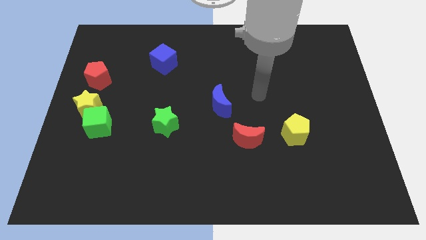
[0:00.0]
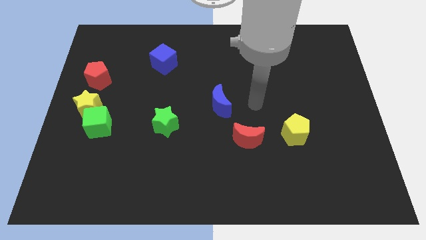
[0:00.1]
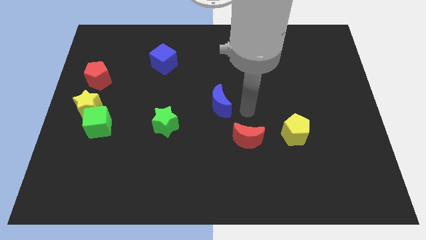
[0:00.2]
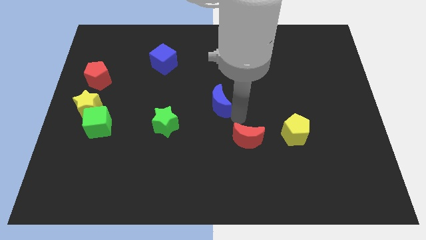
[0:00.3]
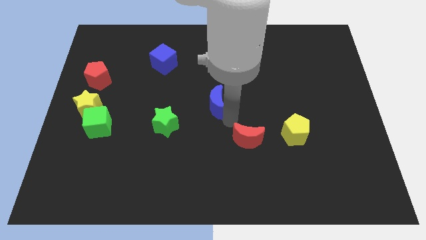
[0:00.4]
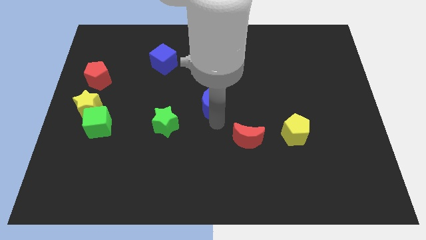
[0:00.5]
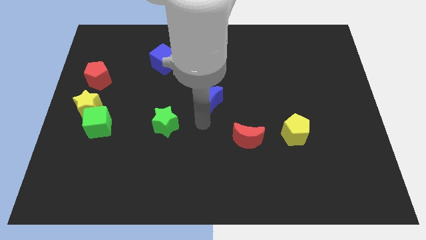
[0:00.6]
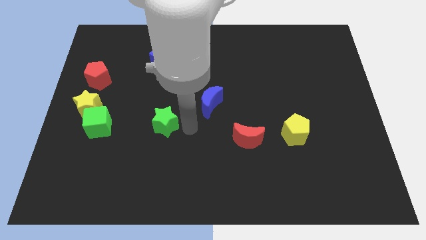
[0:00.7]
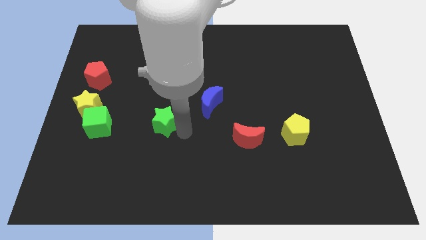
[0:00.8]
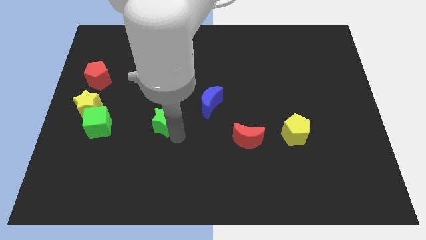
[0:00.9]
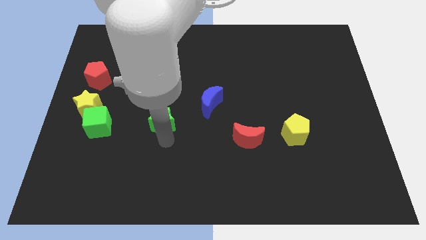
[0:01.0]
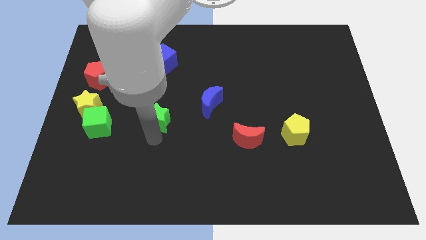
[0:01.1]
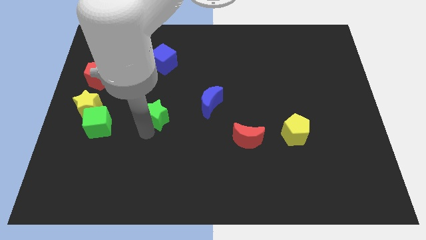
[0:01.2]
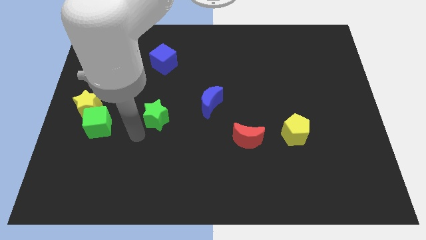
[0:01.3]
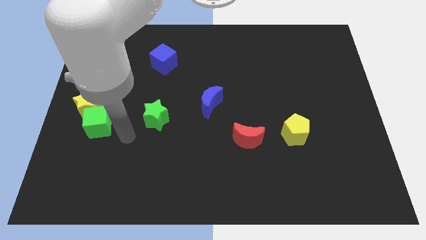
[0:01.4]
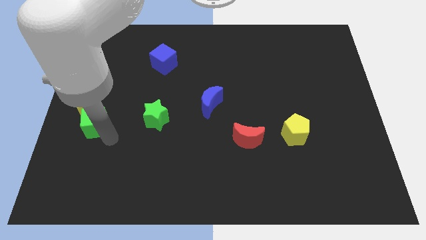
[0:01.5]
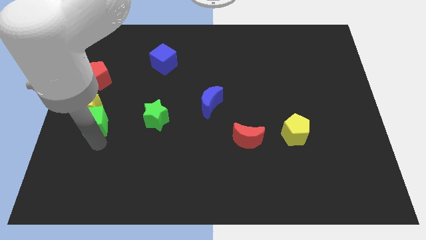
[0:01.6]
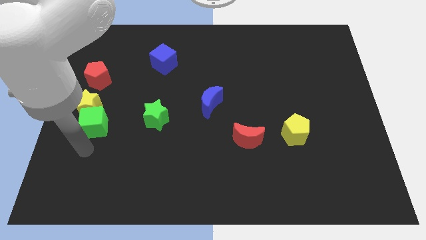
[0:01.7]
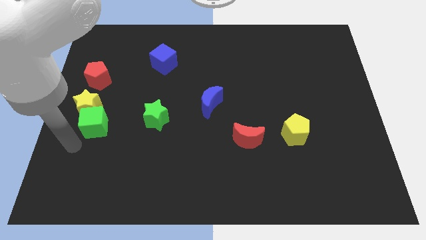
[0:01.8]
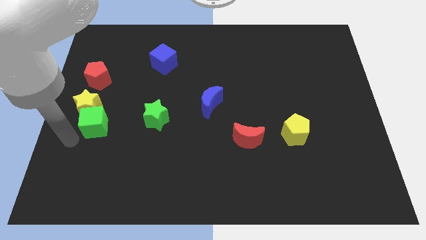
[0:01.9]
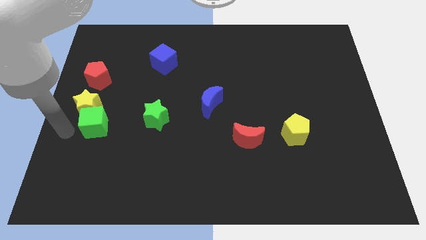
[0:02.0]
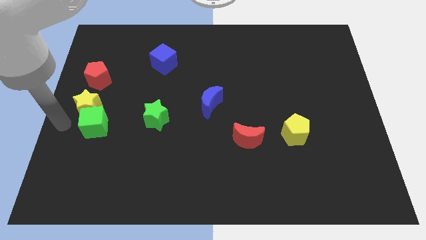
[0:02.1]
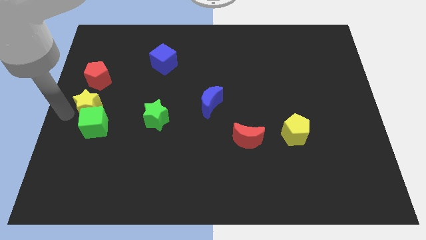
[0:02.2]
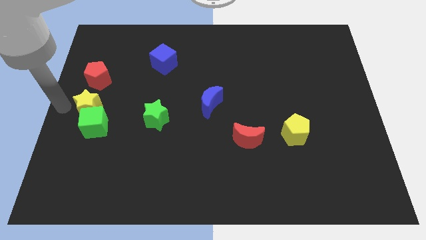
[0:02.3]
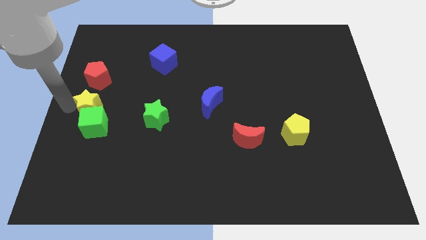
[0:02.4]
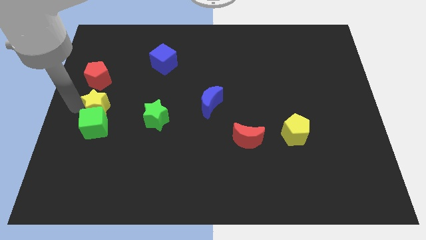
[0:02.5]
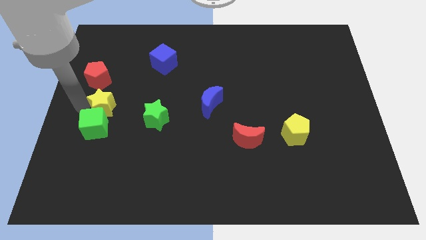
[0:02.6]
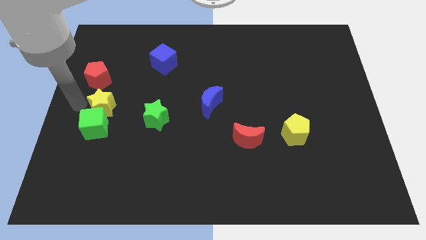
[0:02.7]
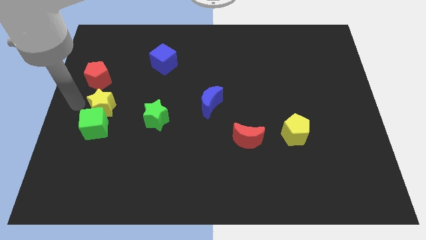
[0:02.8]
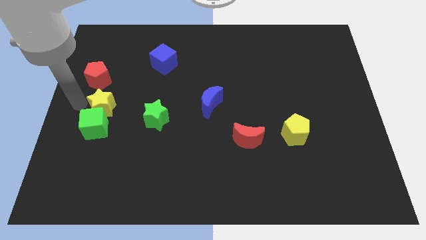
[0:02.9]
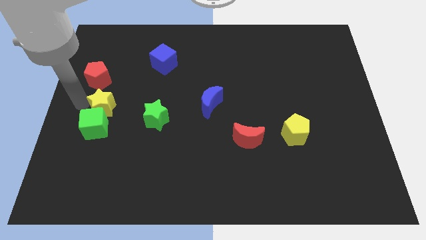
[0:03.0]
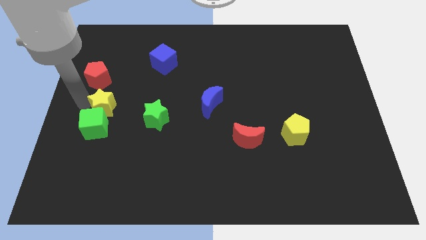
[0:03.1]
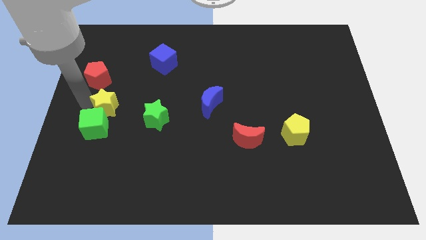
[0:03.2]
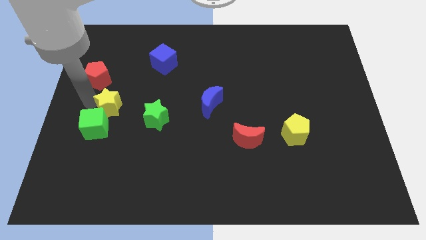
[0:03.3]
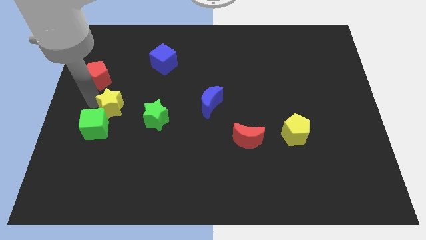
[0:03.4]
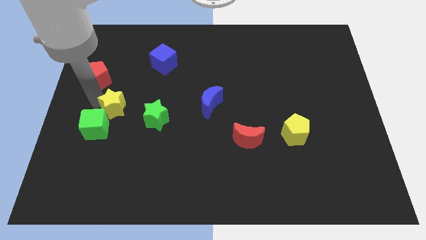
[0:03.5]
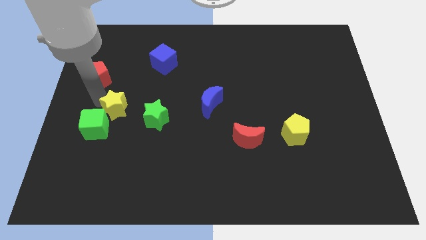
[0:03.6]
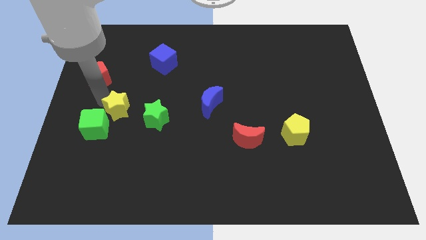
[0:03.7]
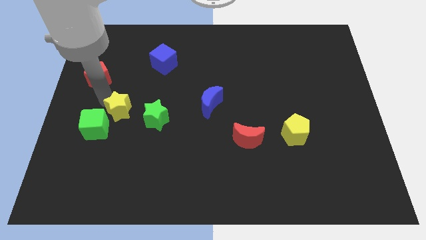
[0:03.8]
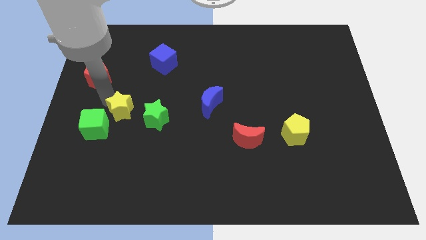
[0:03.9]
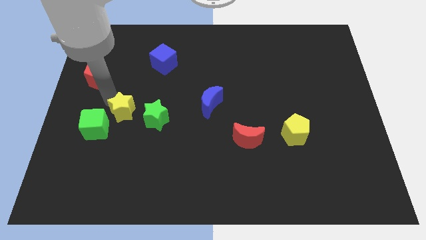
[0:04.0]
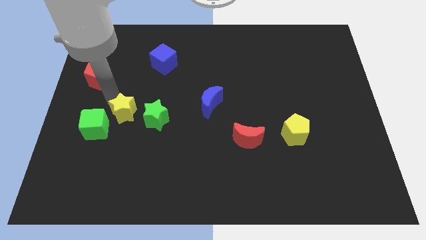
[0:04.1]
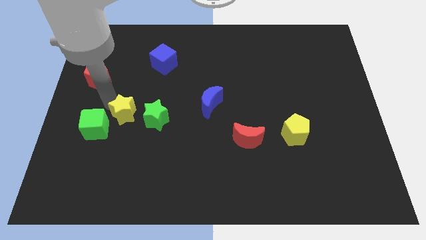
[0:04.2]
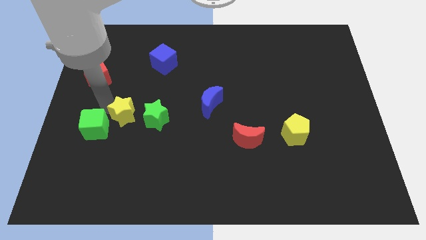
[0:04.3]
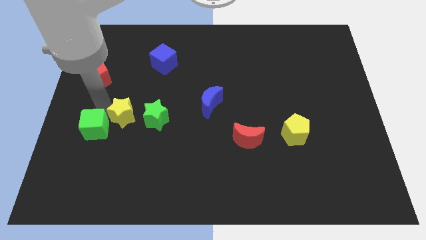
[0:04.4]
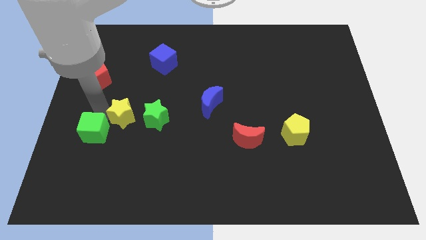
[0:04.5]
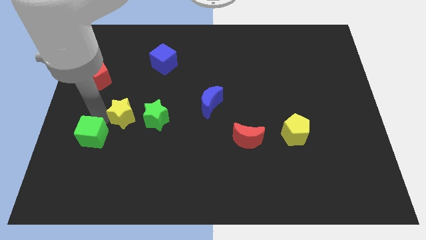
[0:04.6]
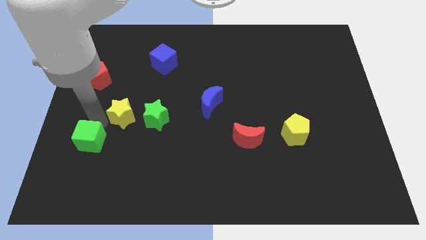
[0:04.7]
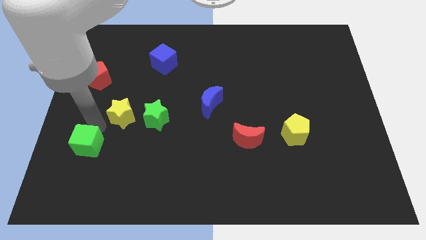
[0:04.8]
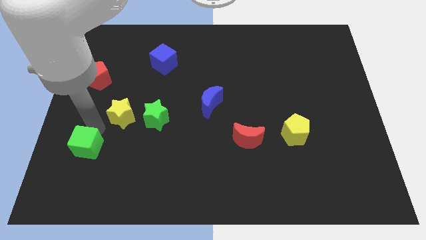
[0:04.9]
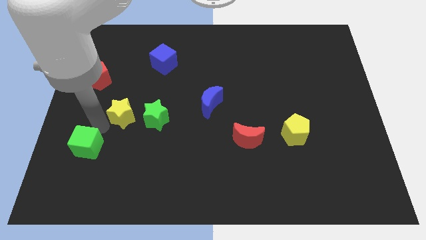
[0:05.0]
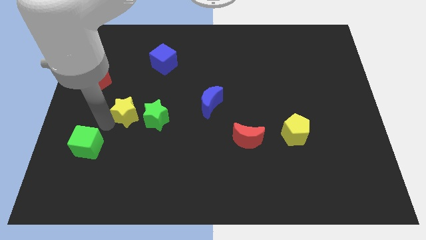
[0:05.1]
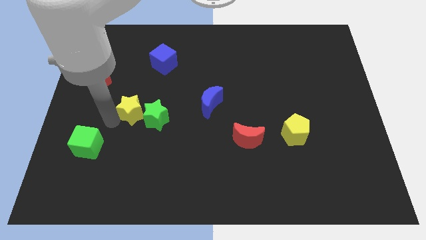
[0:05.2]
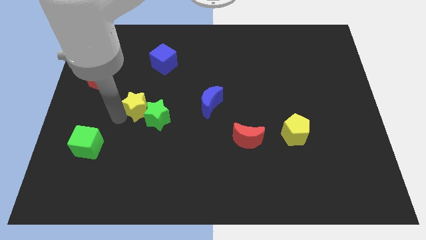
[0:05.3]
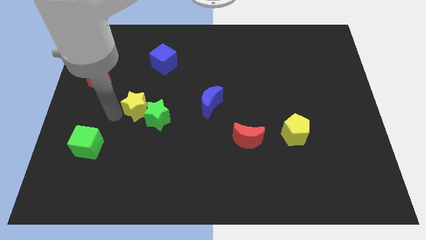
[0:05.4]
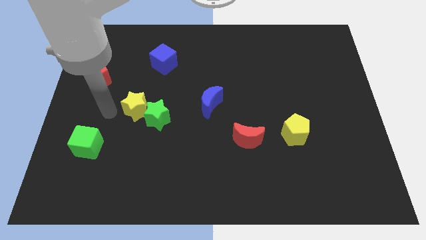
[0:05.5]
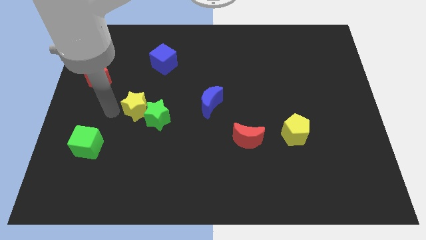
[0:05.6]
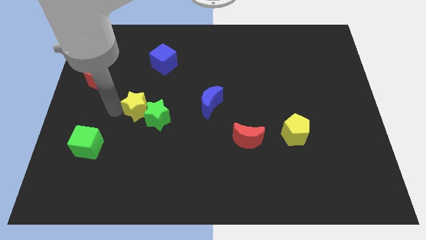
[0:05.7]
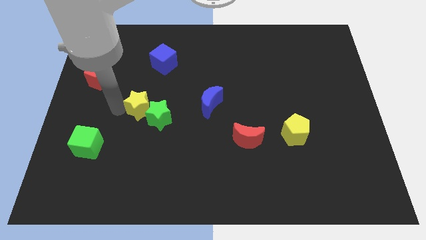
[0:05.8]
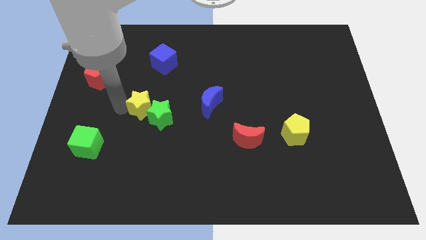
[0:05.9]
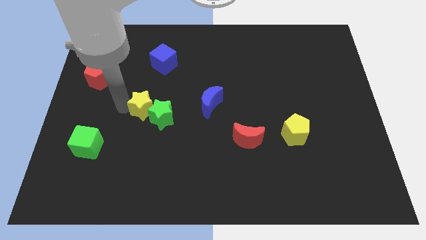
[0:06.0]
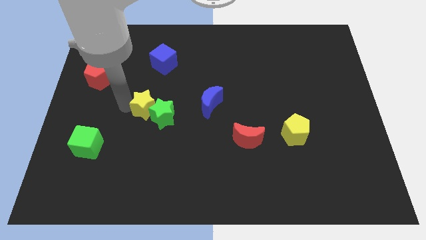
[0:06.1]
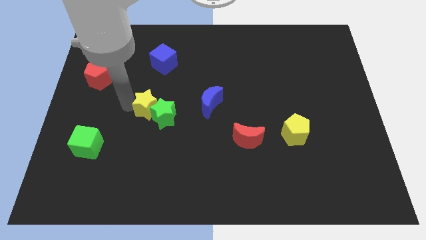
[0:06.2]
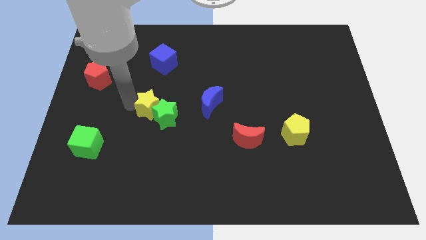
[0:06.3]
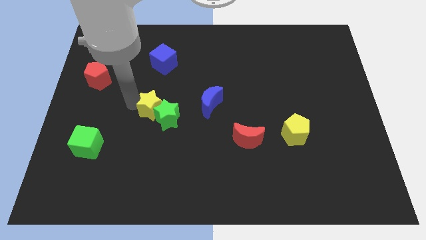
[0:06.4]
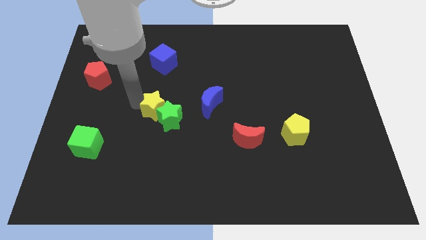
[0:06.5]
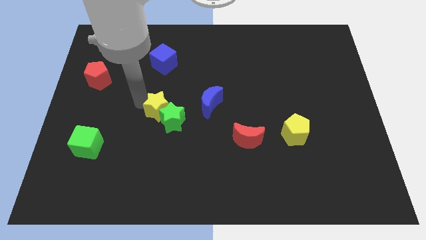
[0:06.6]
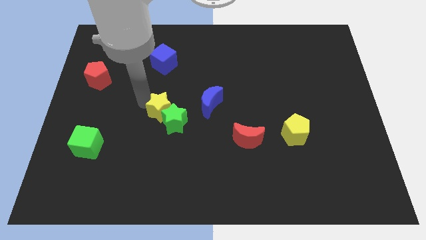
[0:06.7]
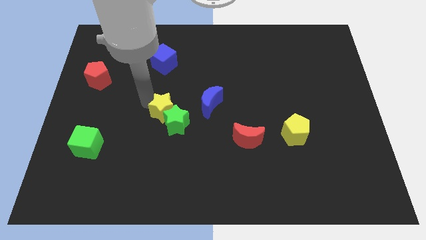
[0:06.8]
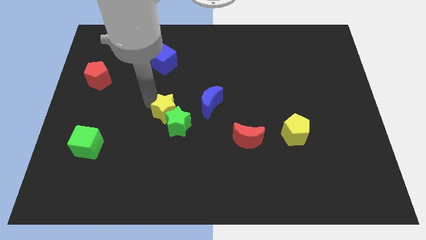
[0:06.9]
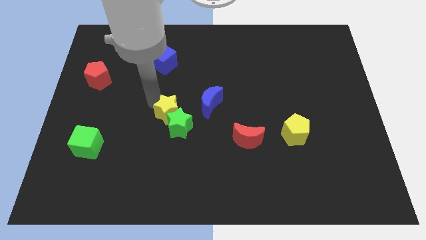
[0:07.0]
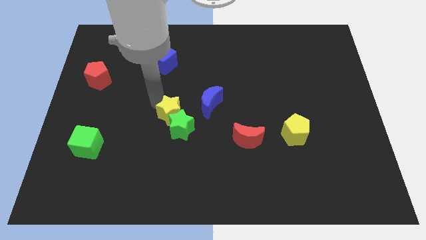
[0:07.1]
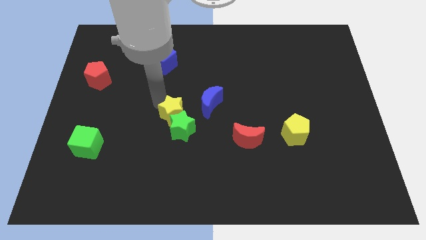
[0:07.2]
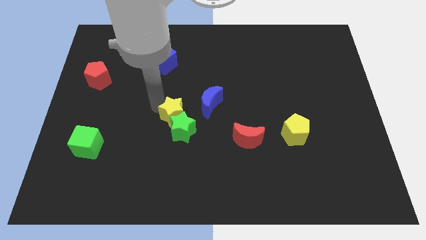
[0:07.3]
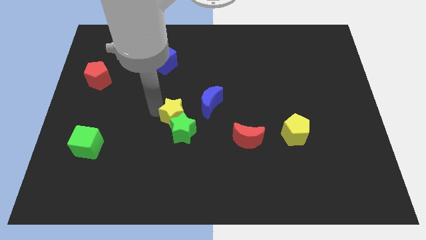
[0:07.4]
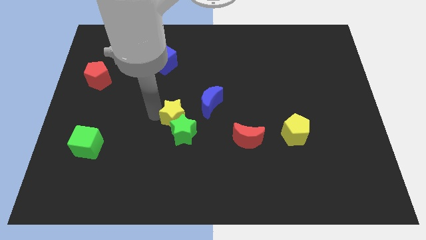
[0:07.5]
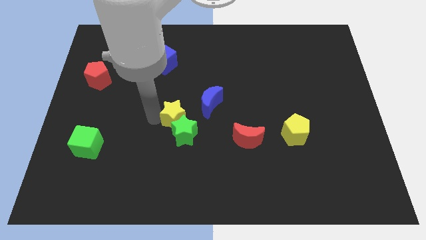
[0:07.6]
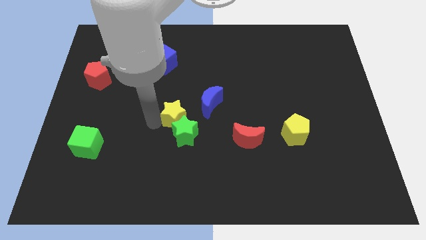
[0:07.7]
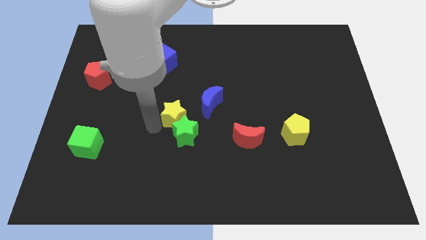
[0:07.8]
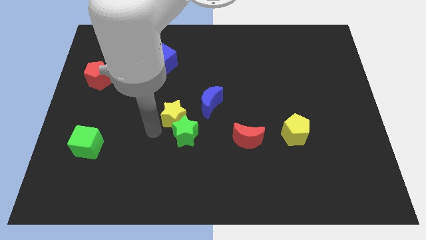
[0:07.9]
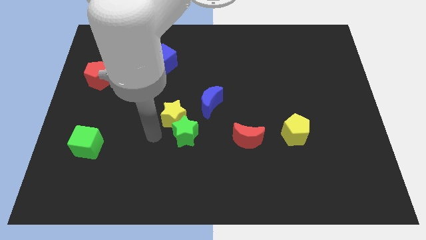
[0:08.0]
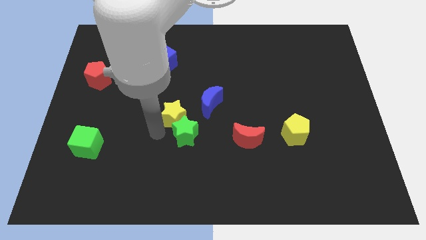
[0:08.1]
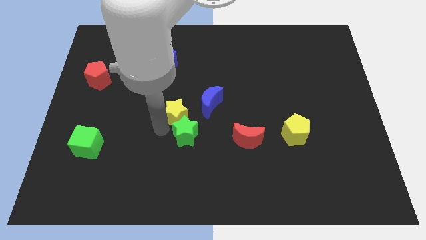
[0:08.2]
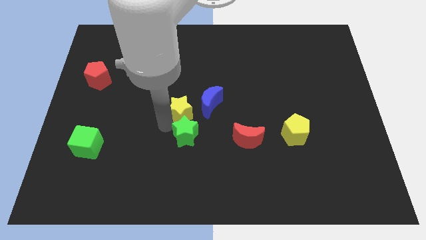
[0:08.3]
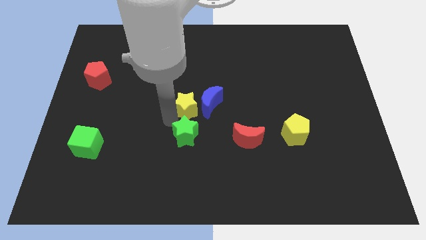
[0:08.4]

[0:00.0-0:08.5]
put the yellow star next to the blue moon
